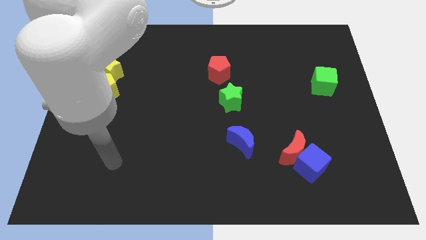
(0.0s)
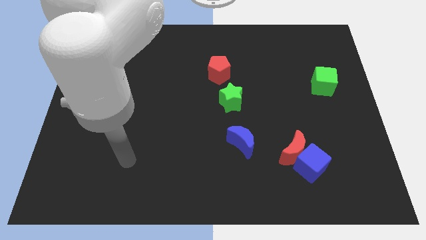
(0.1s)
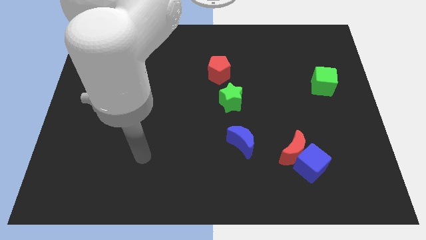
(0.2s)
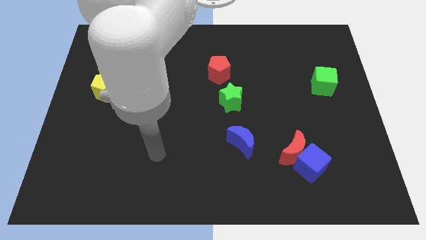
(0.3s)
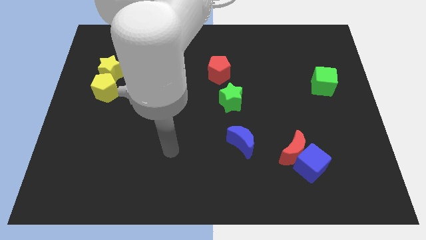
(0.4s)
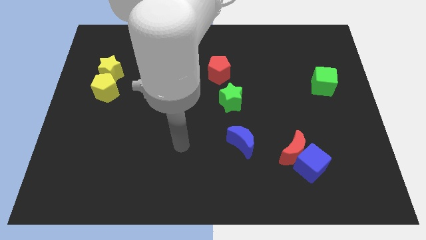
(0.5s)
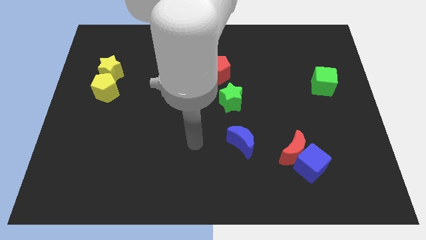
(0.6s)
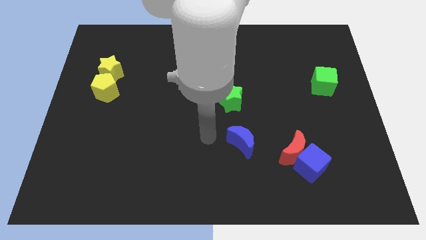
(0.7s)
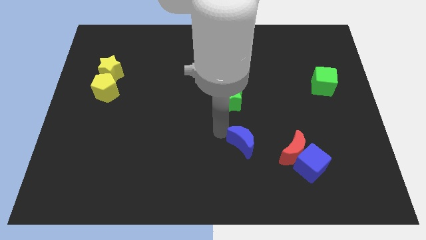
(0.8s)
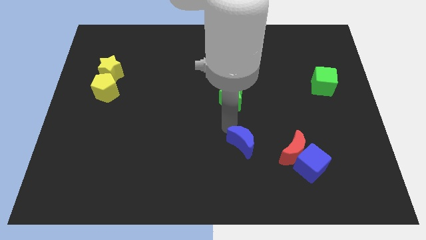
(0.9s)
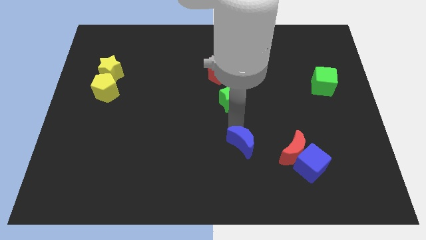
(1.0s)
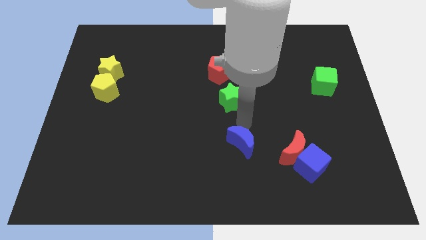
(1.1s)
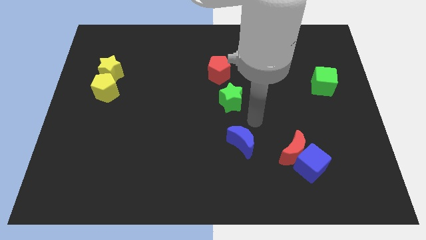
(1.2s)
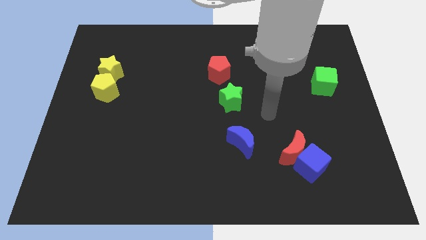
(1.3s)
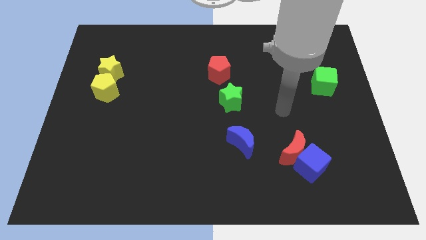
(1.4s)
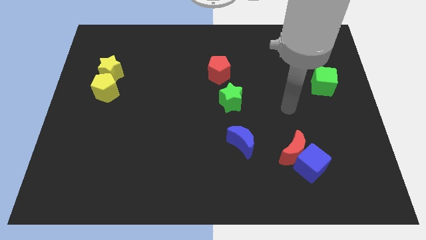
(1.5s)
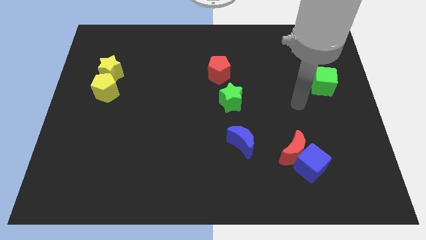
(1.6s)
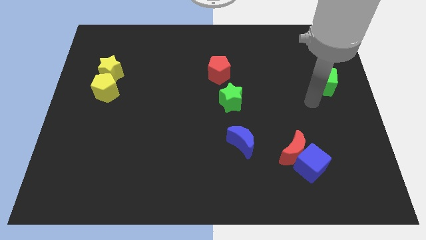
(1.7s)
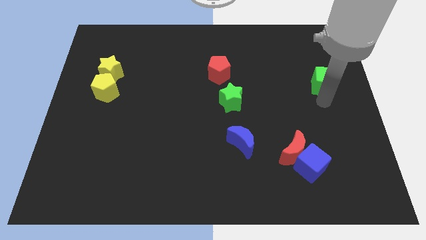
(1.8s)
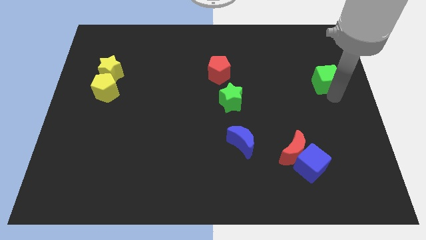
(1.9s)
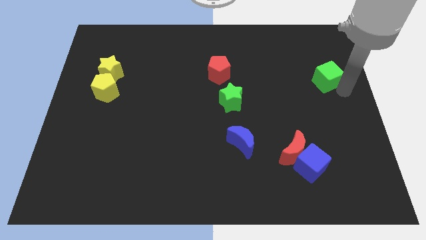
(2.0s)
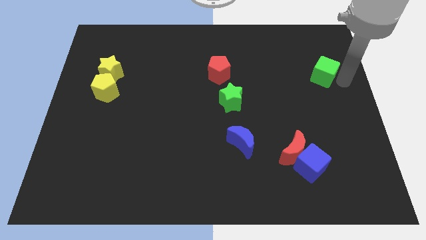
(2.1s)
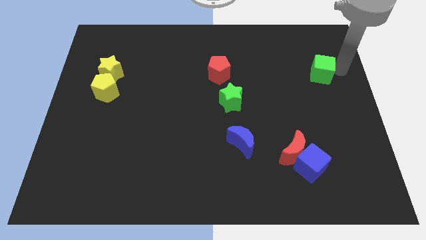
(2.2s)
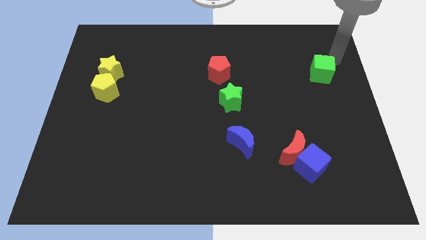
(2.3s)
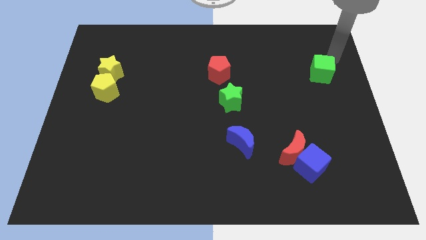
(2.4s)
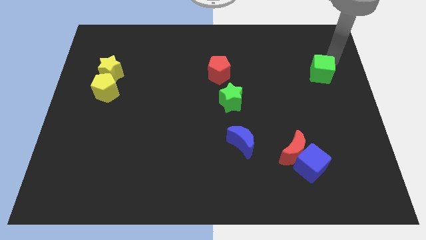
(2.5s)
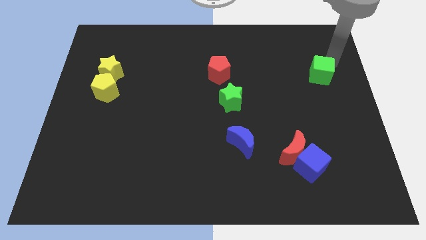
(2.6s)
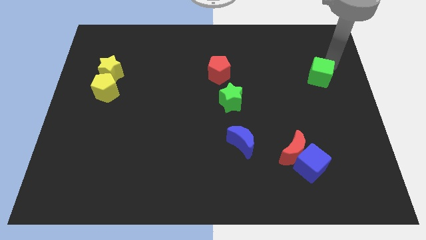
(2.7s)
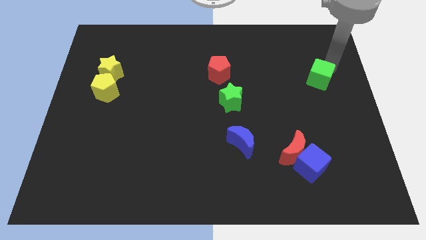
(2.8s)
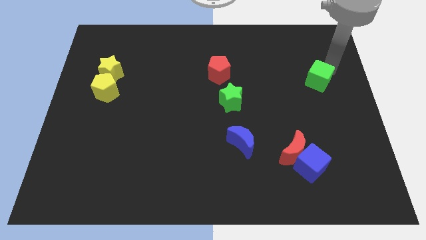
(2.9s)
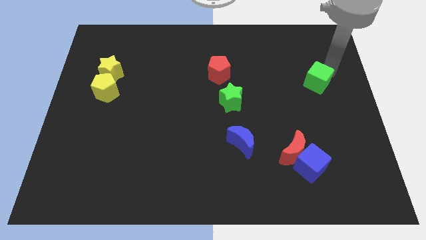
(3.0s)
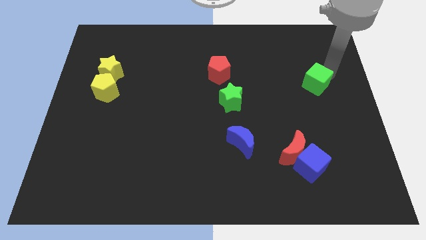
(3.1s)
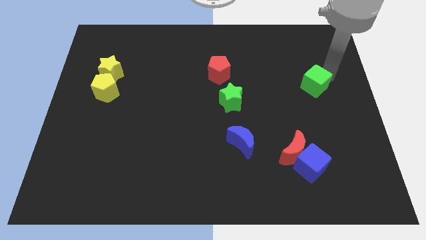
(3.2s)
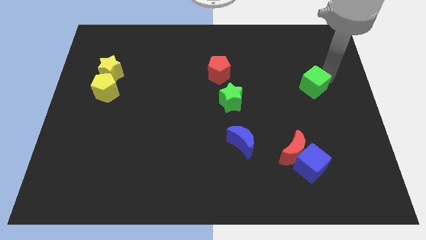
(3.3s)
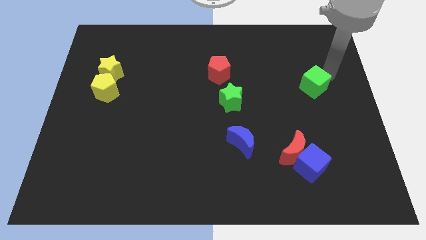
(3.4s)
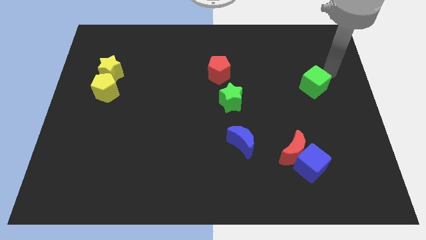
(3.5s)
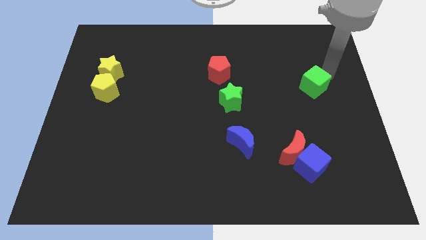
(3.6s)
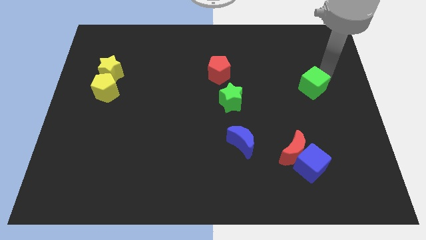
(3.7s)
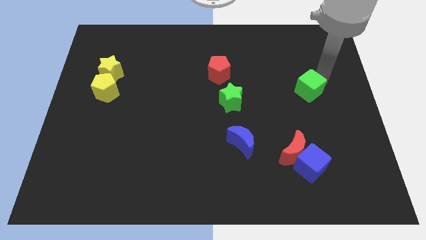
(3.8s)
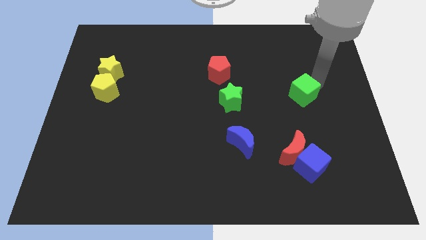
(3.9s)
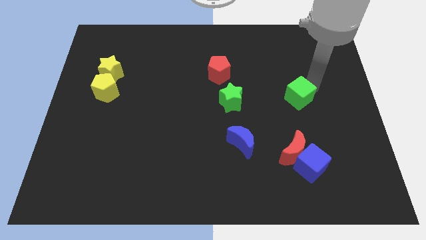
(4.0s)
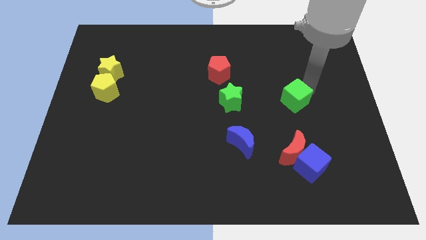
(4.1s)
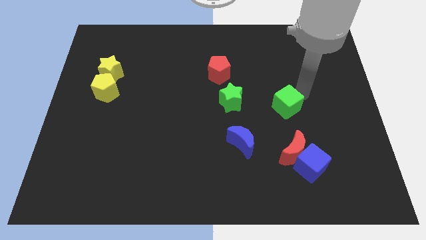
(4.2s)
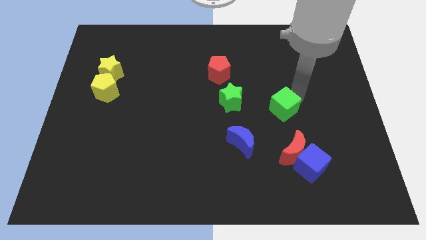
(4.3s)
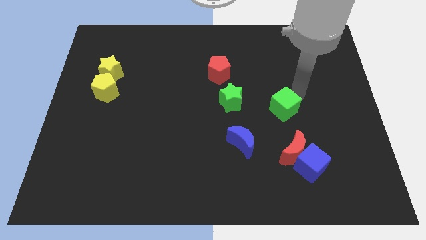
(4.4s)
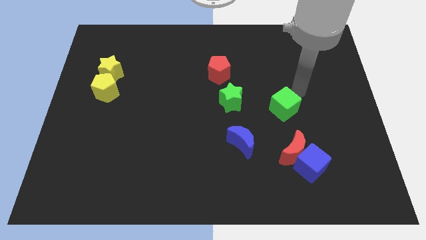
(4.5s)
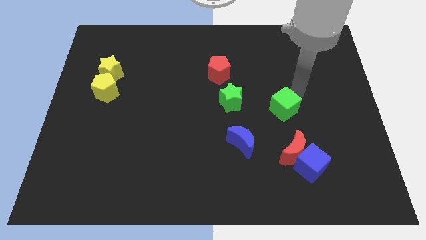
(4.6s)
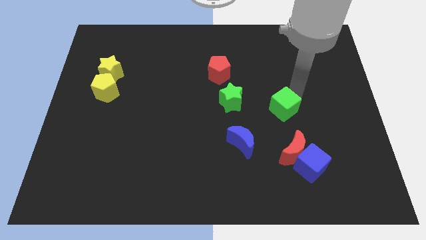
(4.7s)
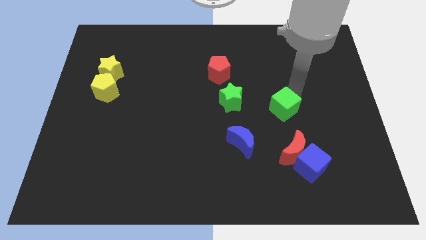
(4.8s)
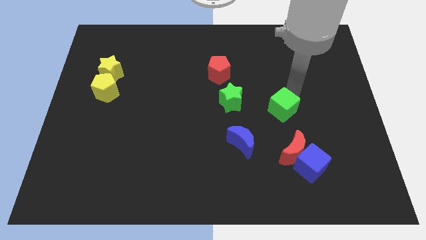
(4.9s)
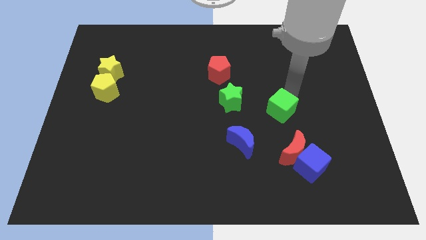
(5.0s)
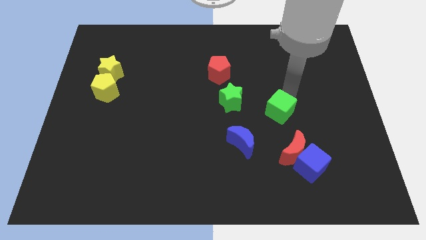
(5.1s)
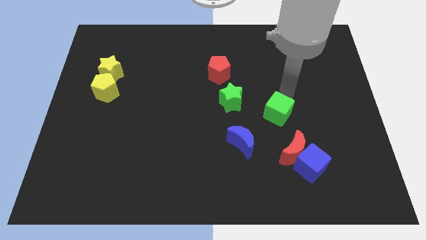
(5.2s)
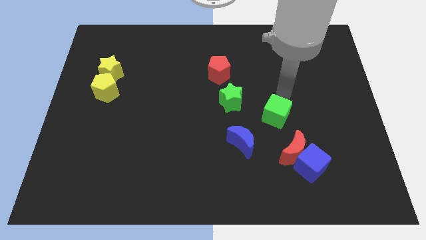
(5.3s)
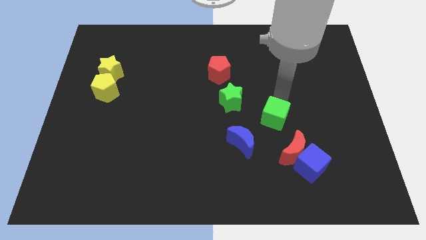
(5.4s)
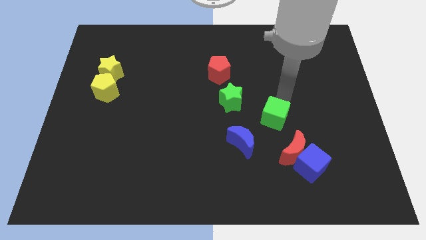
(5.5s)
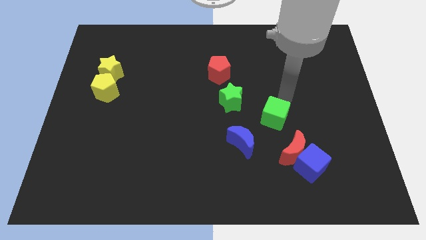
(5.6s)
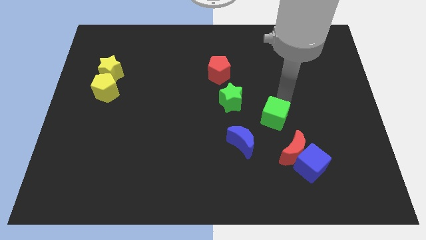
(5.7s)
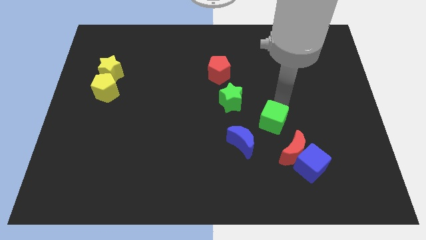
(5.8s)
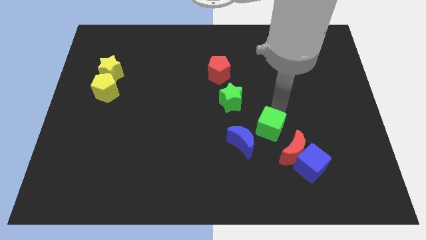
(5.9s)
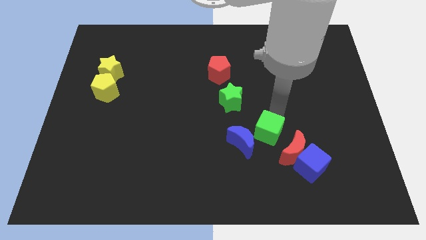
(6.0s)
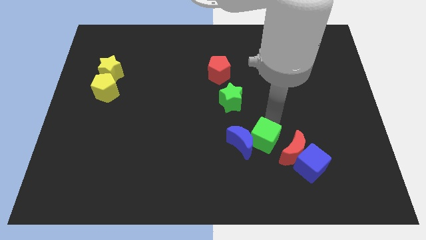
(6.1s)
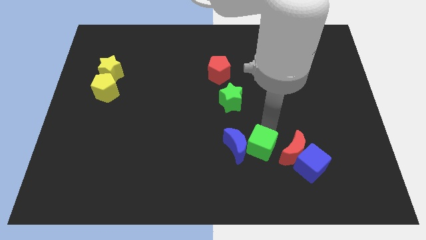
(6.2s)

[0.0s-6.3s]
move the green cube left of the blue cube

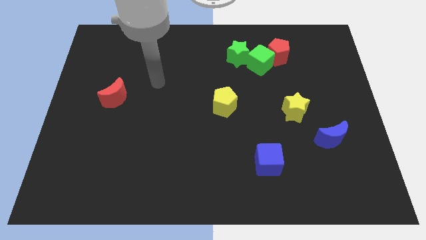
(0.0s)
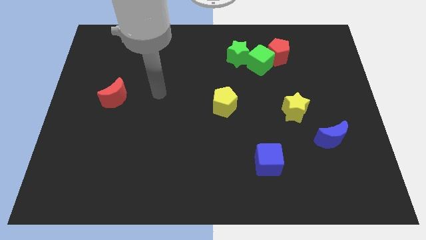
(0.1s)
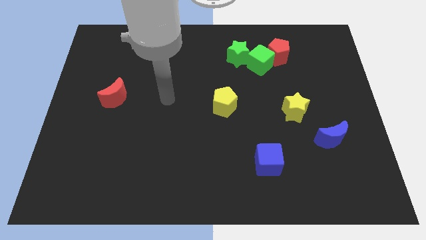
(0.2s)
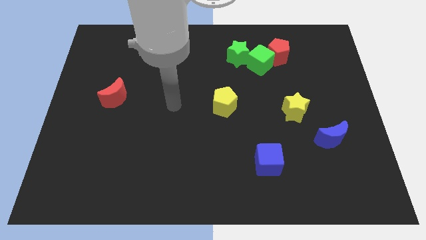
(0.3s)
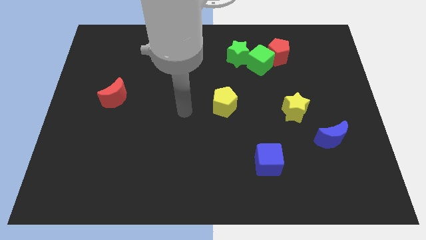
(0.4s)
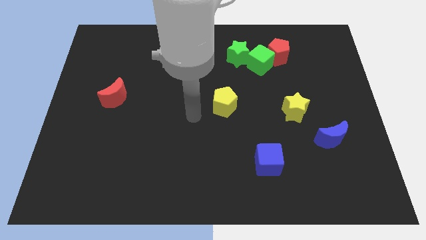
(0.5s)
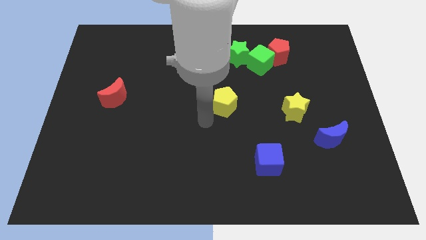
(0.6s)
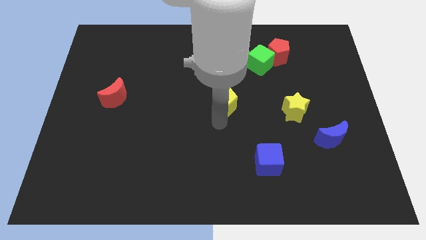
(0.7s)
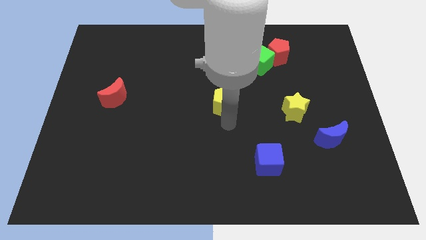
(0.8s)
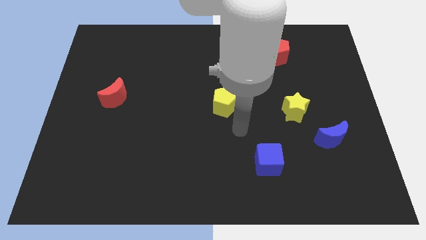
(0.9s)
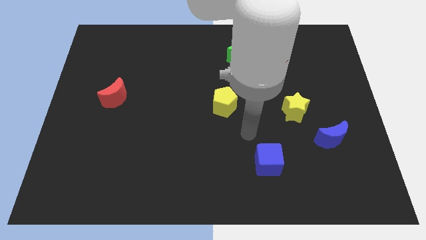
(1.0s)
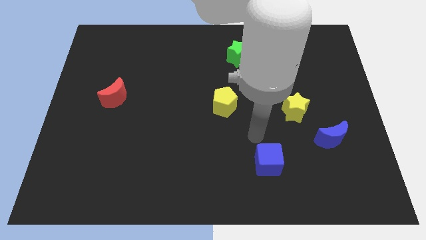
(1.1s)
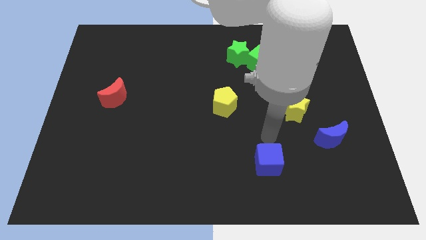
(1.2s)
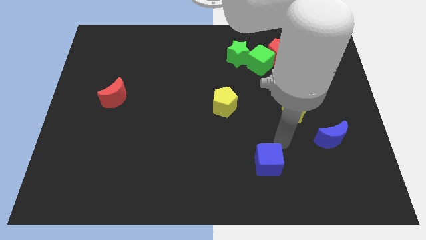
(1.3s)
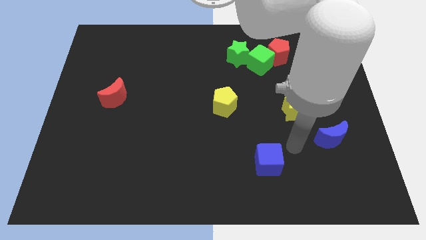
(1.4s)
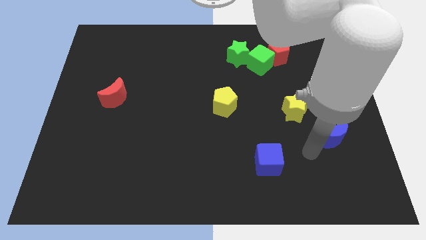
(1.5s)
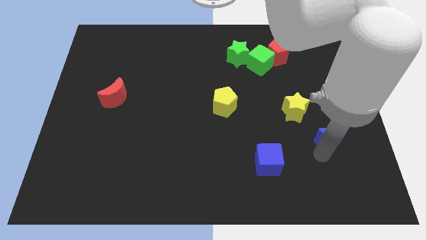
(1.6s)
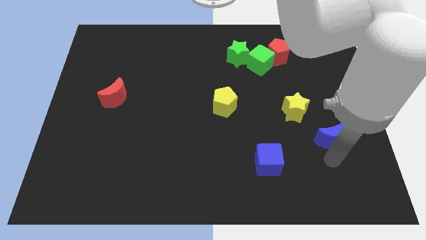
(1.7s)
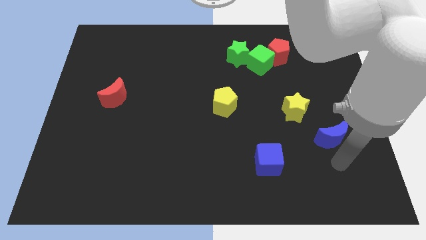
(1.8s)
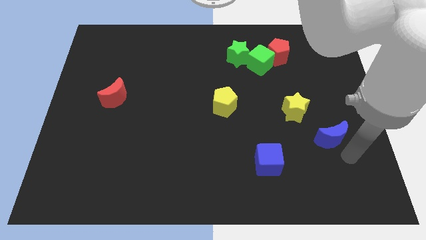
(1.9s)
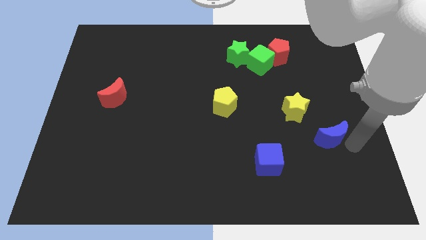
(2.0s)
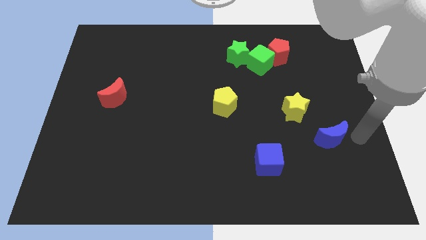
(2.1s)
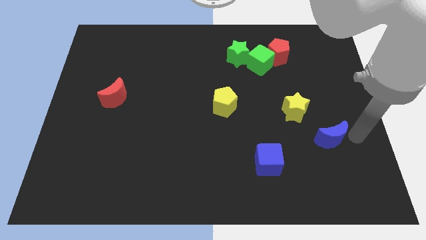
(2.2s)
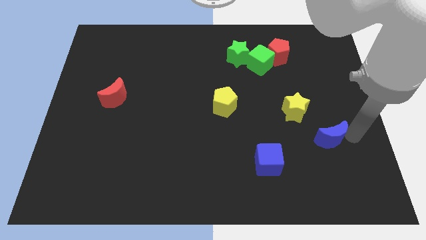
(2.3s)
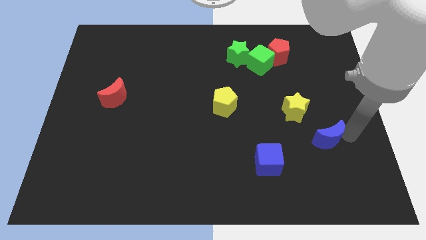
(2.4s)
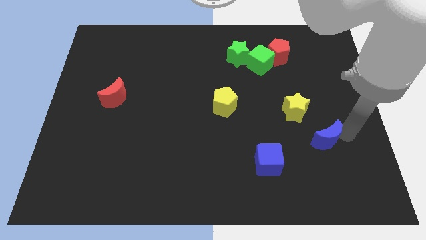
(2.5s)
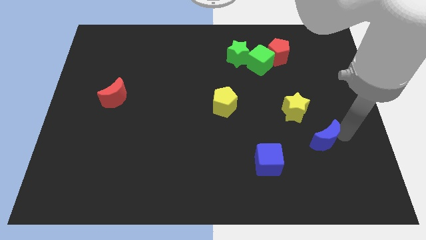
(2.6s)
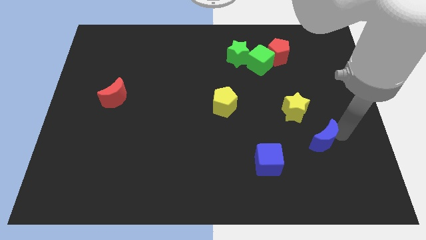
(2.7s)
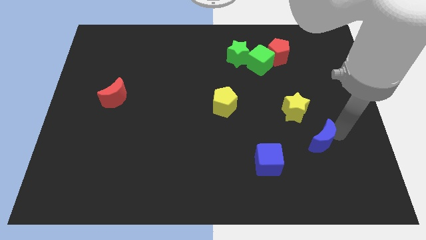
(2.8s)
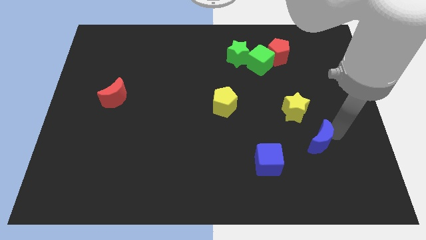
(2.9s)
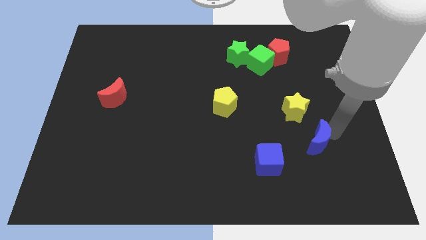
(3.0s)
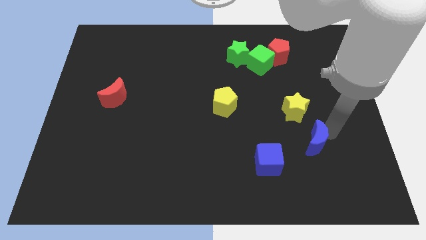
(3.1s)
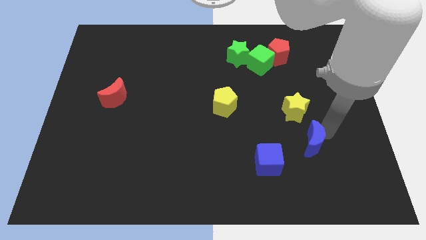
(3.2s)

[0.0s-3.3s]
move the blue moon to the top right of the blue cube
